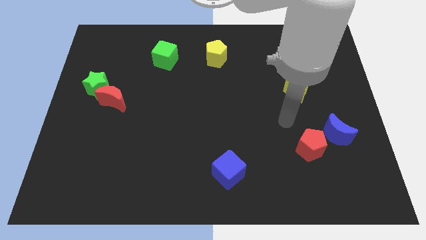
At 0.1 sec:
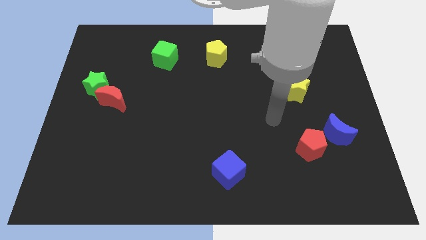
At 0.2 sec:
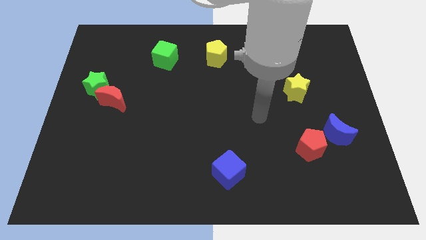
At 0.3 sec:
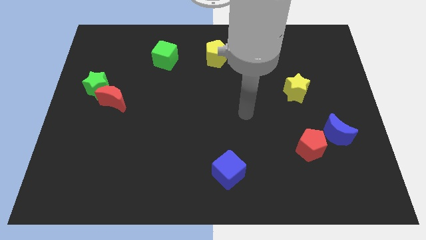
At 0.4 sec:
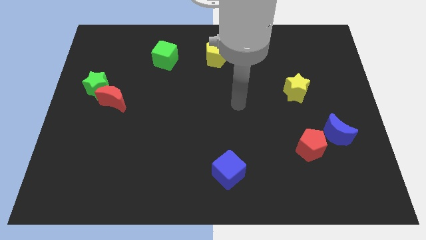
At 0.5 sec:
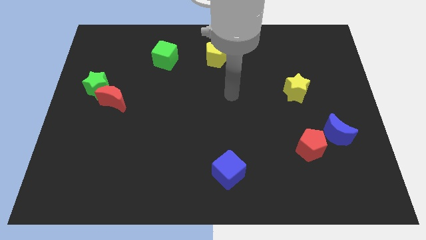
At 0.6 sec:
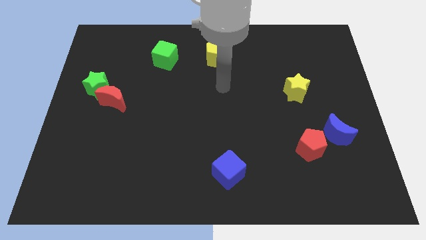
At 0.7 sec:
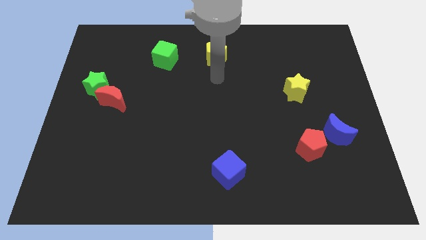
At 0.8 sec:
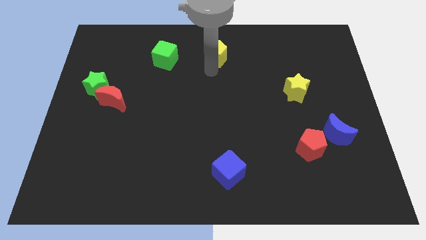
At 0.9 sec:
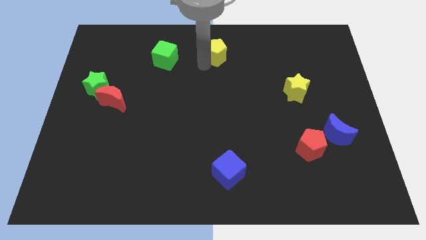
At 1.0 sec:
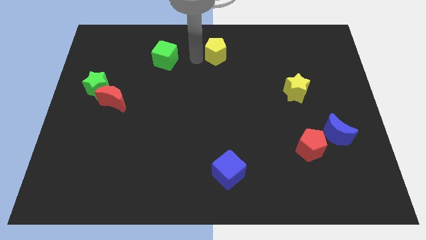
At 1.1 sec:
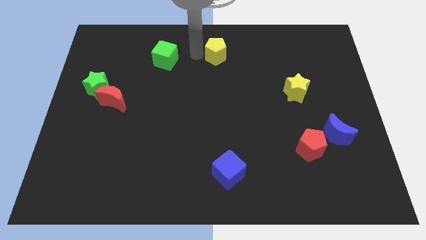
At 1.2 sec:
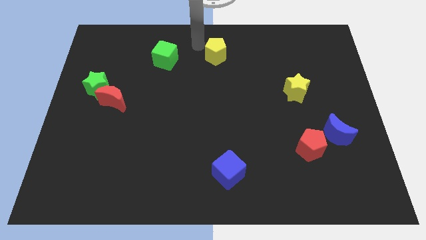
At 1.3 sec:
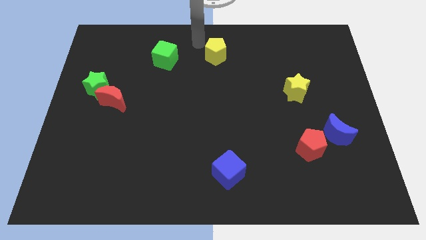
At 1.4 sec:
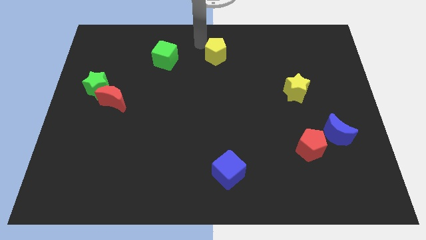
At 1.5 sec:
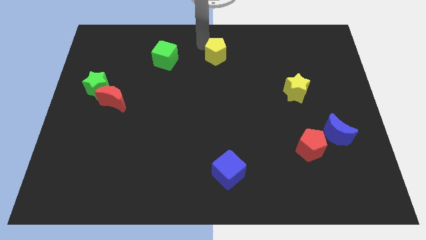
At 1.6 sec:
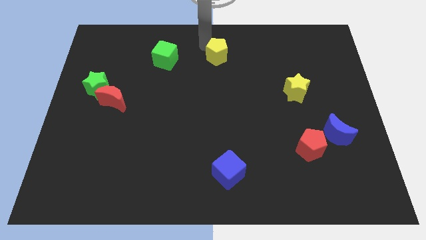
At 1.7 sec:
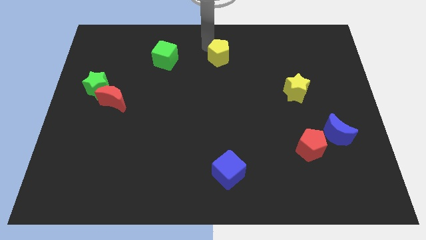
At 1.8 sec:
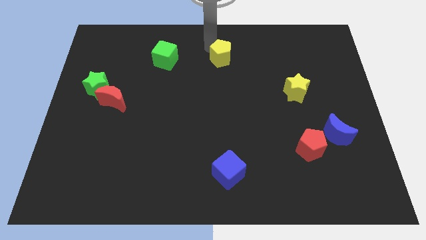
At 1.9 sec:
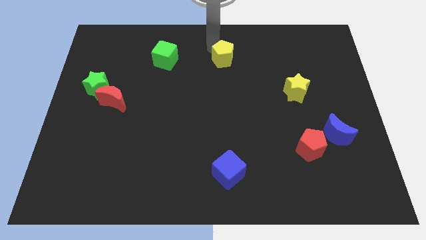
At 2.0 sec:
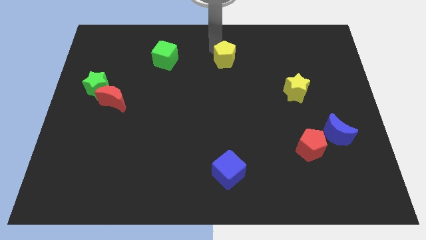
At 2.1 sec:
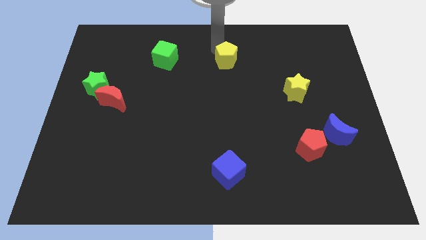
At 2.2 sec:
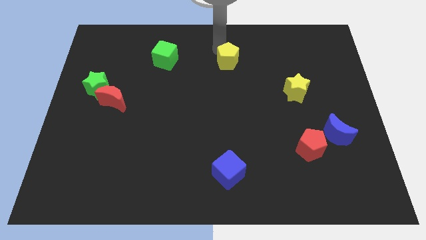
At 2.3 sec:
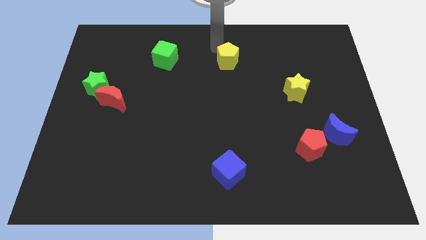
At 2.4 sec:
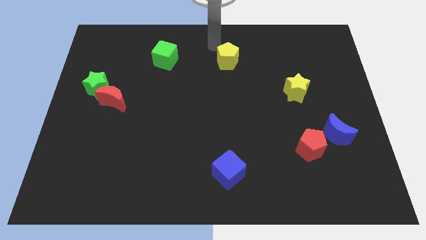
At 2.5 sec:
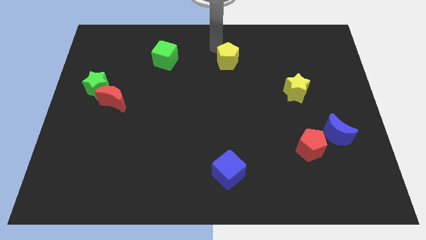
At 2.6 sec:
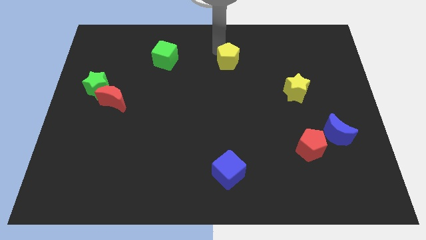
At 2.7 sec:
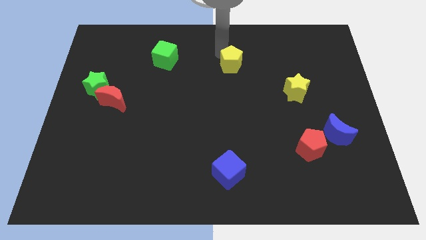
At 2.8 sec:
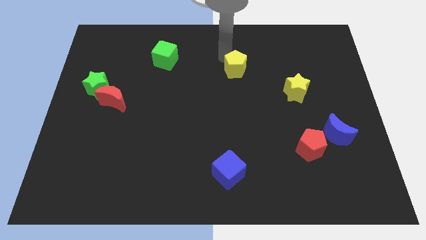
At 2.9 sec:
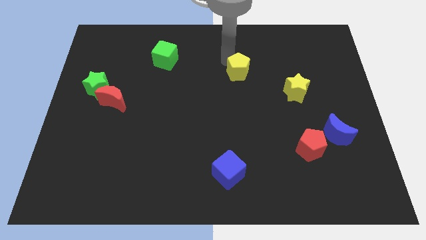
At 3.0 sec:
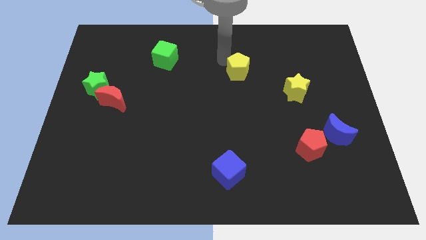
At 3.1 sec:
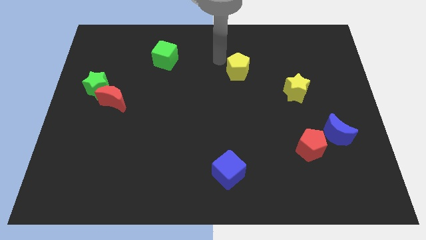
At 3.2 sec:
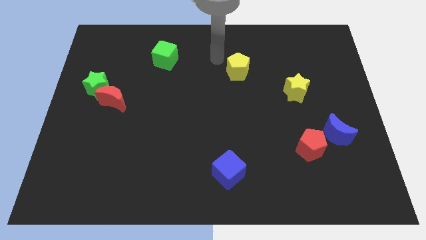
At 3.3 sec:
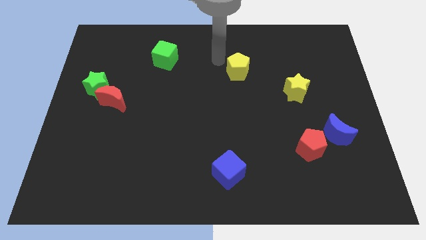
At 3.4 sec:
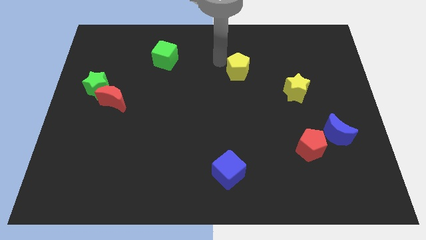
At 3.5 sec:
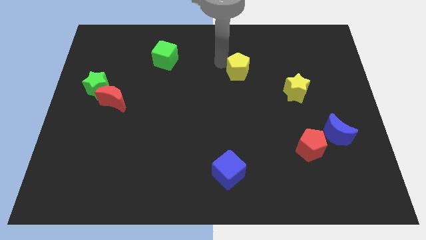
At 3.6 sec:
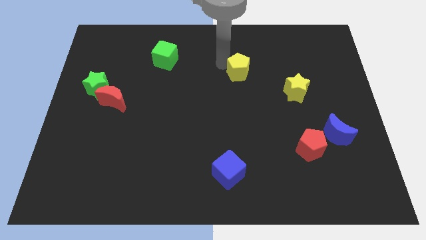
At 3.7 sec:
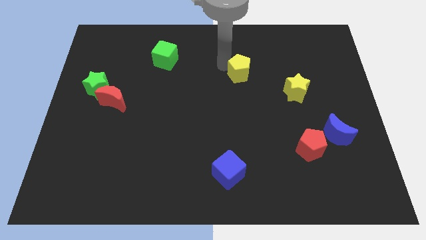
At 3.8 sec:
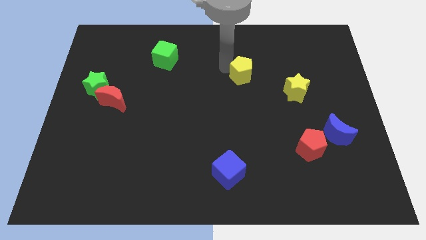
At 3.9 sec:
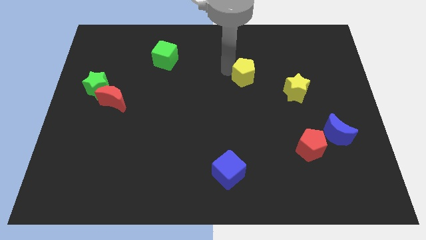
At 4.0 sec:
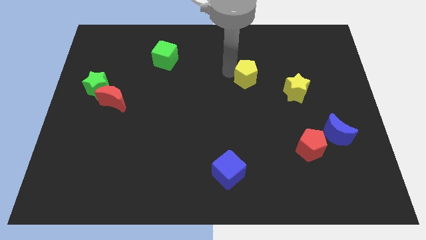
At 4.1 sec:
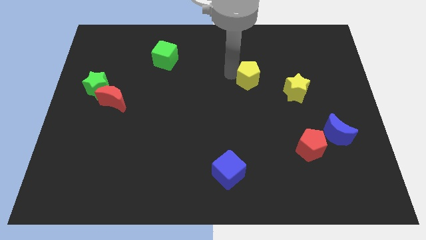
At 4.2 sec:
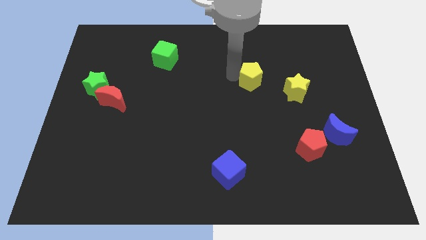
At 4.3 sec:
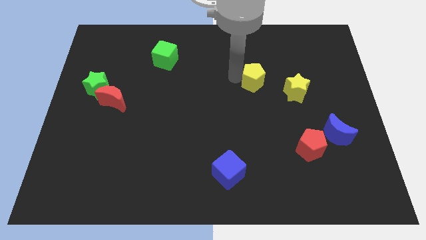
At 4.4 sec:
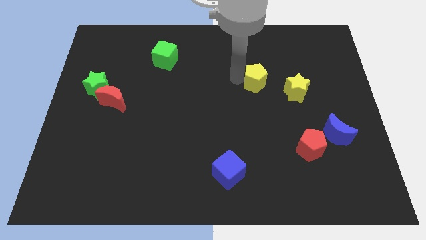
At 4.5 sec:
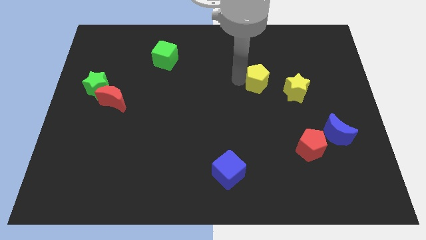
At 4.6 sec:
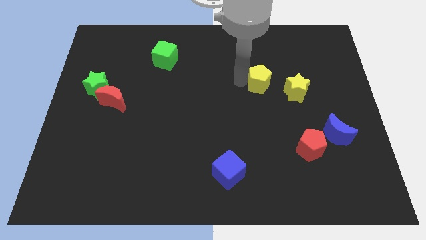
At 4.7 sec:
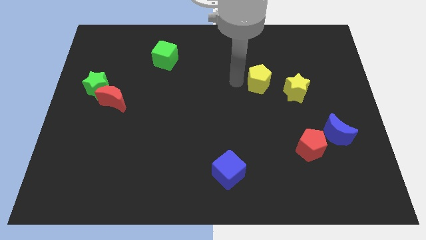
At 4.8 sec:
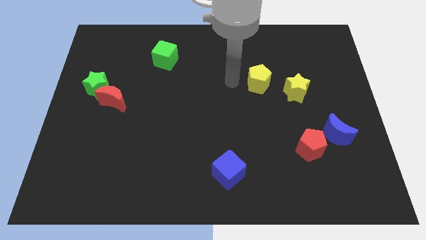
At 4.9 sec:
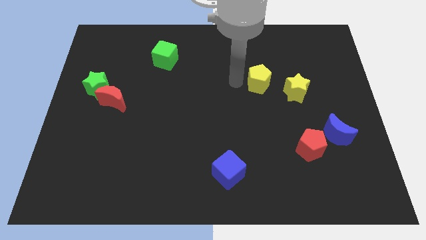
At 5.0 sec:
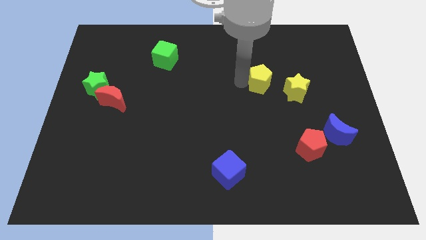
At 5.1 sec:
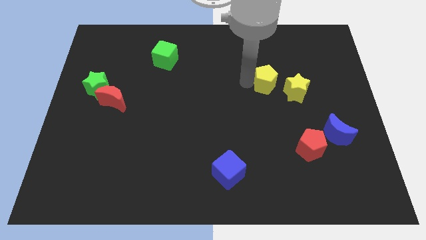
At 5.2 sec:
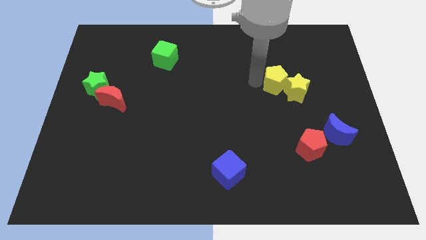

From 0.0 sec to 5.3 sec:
slide the yellow pentagon next to the yellow star

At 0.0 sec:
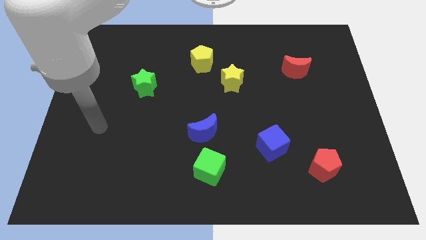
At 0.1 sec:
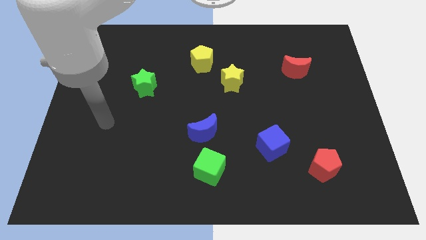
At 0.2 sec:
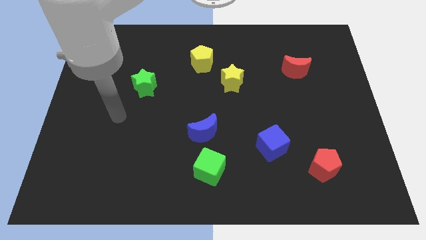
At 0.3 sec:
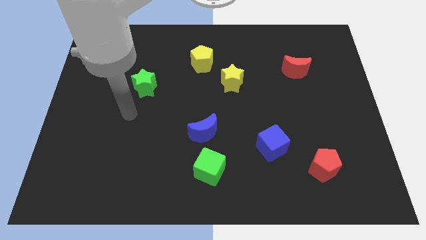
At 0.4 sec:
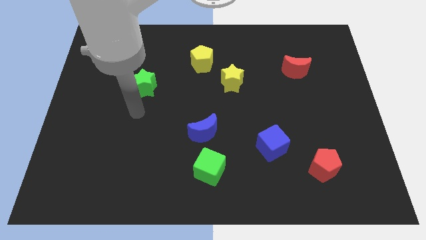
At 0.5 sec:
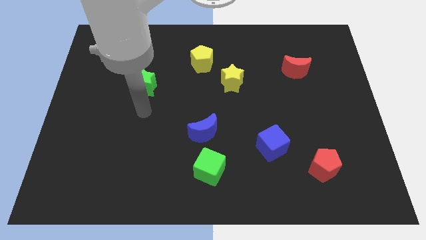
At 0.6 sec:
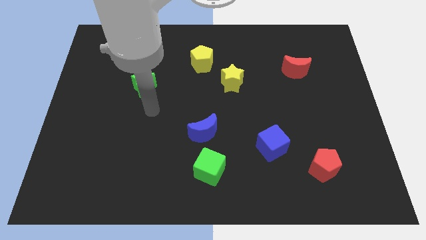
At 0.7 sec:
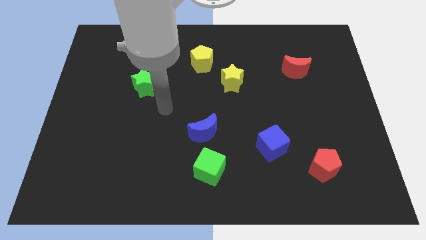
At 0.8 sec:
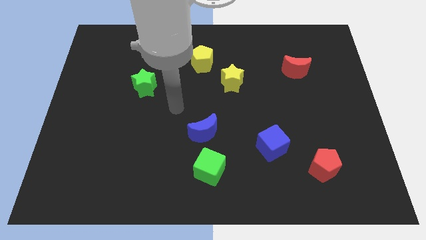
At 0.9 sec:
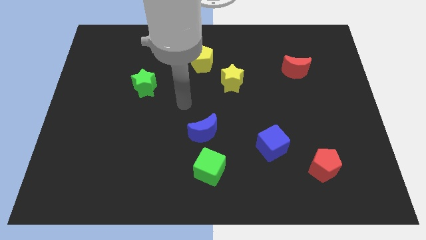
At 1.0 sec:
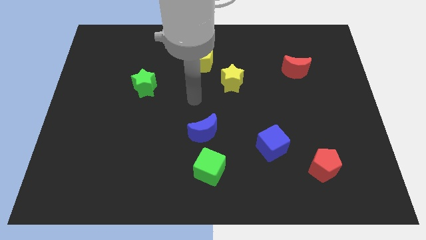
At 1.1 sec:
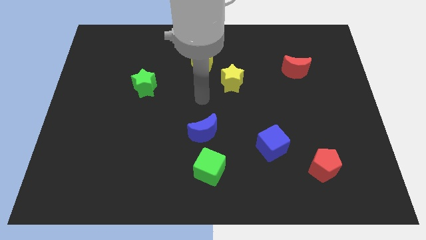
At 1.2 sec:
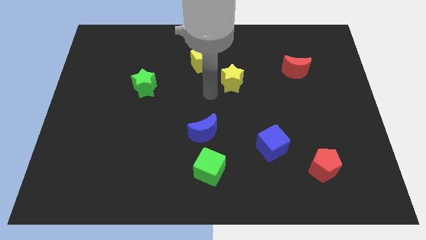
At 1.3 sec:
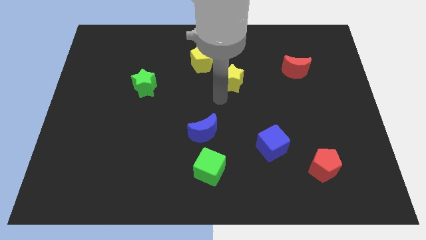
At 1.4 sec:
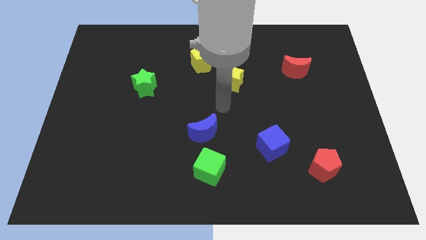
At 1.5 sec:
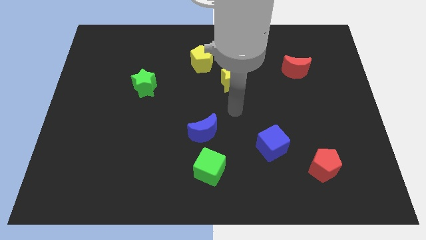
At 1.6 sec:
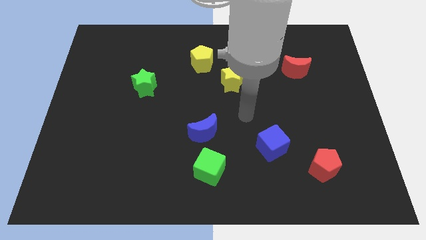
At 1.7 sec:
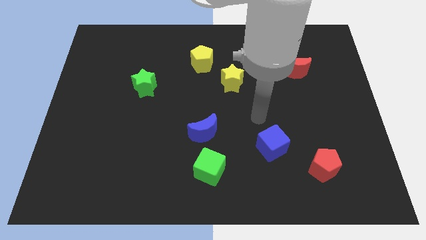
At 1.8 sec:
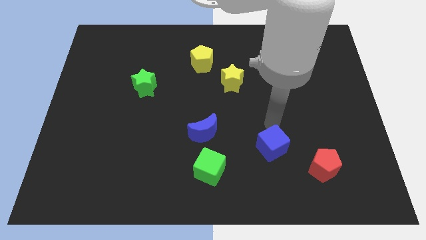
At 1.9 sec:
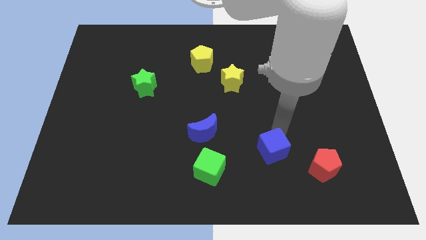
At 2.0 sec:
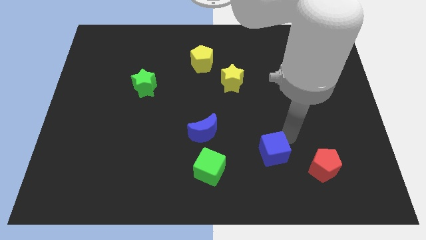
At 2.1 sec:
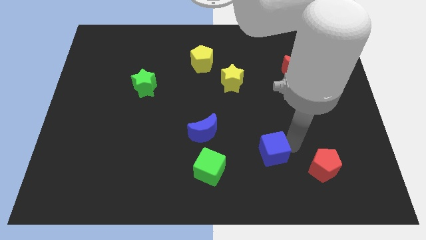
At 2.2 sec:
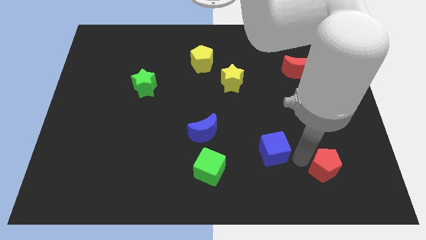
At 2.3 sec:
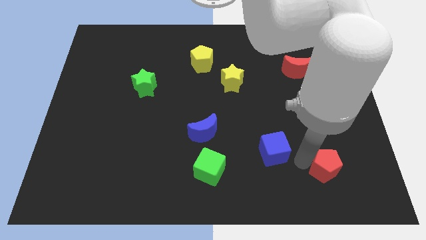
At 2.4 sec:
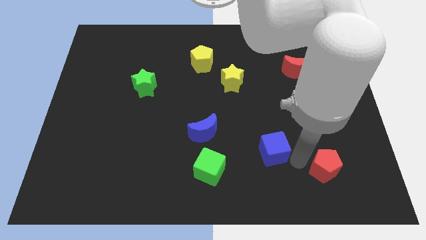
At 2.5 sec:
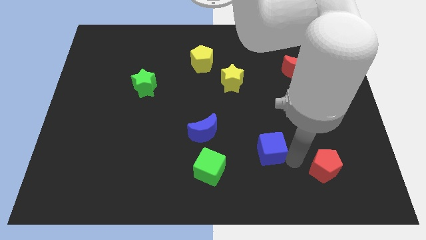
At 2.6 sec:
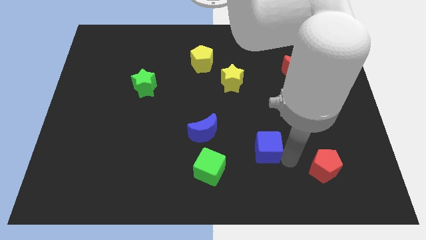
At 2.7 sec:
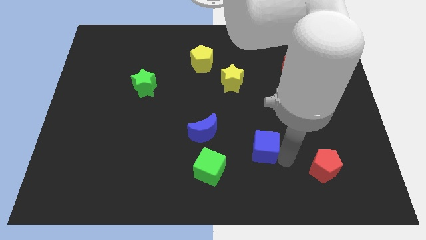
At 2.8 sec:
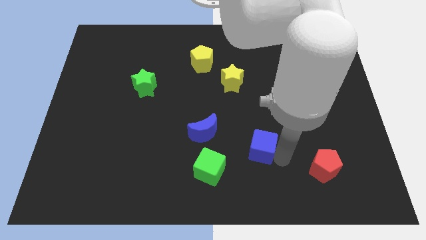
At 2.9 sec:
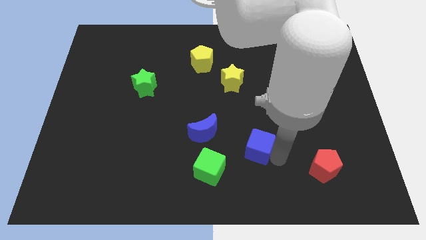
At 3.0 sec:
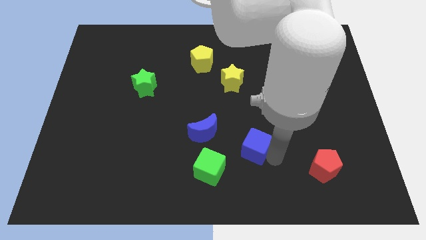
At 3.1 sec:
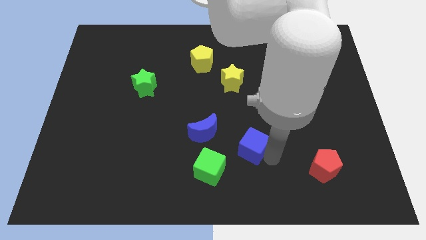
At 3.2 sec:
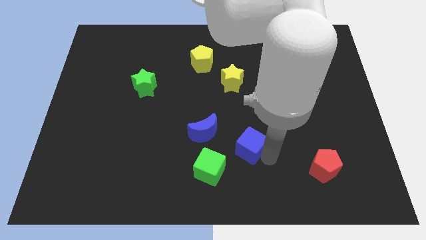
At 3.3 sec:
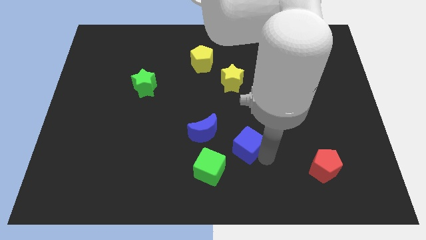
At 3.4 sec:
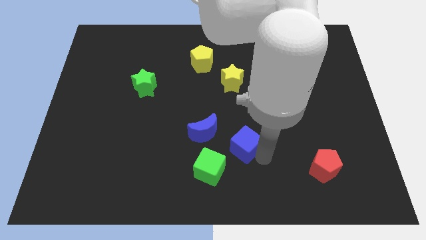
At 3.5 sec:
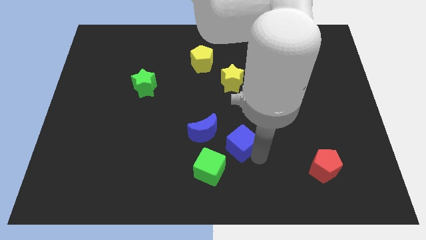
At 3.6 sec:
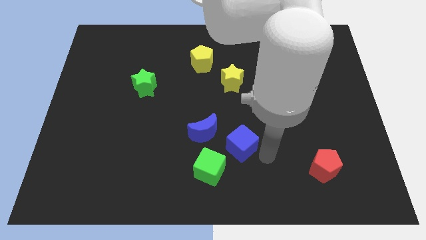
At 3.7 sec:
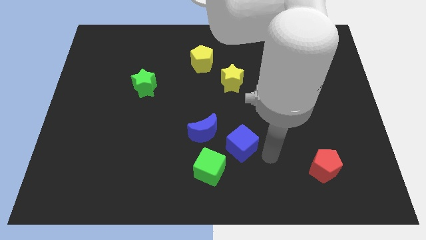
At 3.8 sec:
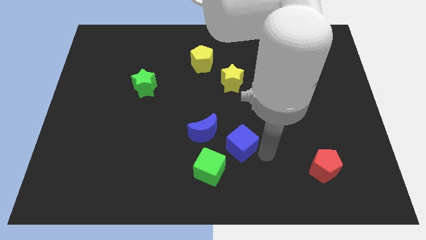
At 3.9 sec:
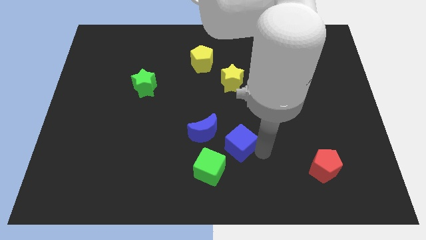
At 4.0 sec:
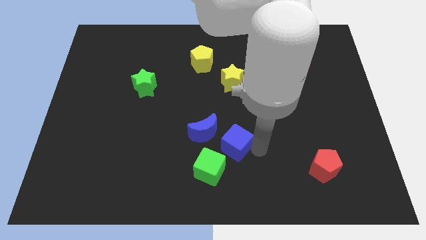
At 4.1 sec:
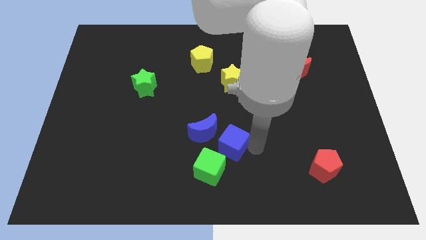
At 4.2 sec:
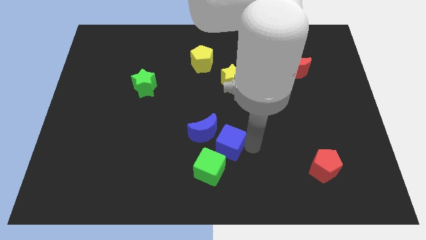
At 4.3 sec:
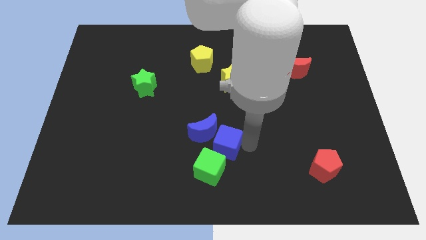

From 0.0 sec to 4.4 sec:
move the blue cube next to the blue moon
